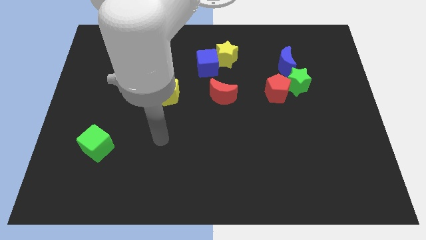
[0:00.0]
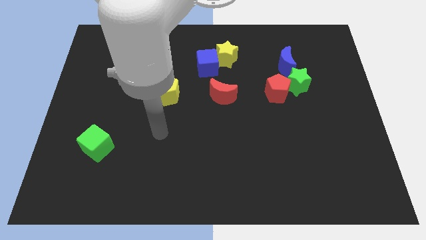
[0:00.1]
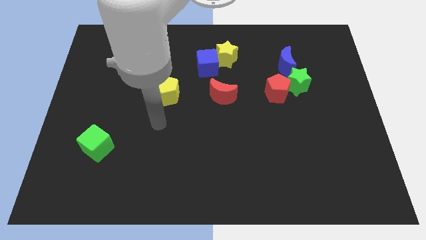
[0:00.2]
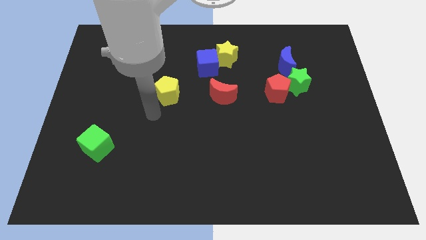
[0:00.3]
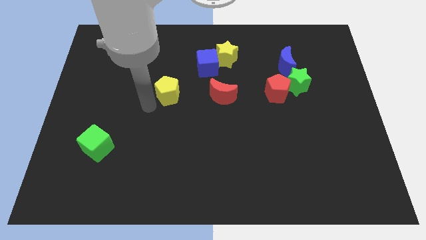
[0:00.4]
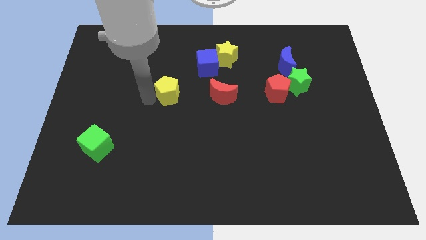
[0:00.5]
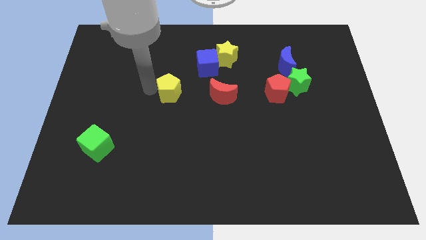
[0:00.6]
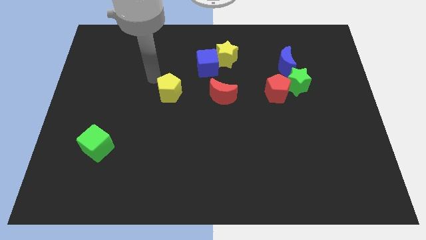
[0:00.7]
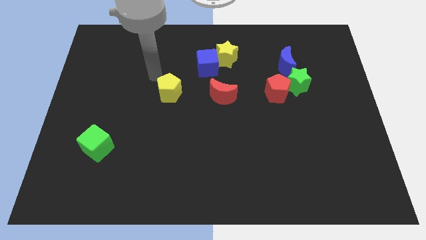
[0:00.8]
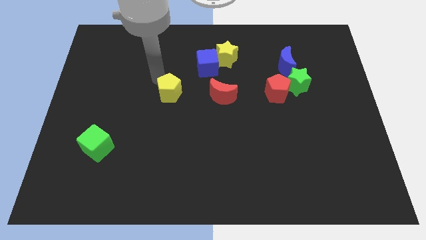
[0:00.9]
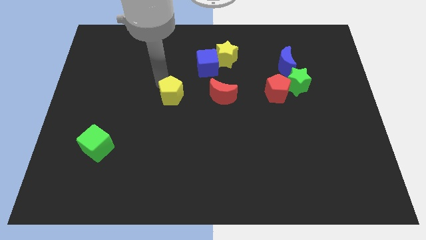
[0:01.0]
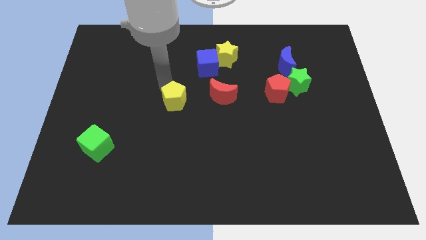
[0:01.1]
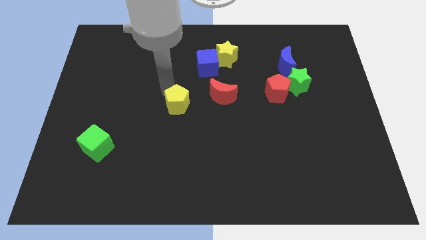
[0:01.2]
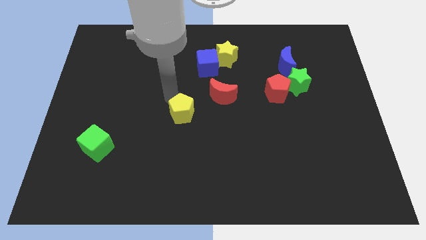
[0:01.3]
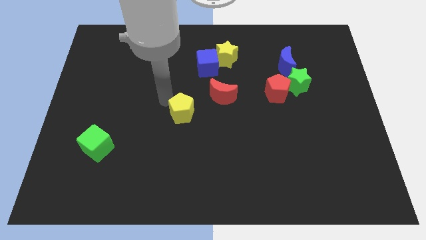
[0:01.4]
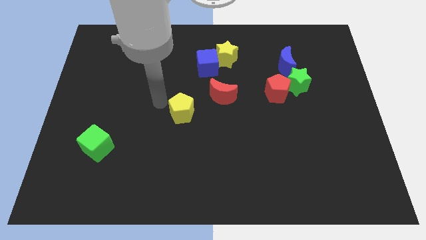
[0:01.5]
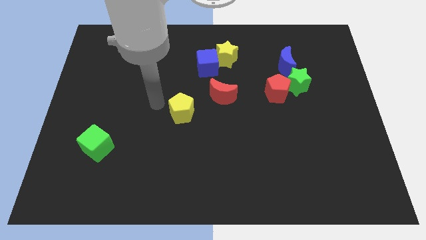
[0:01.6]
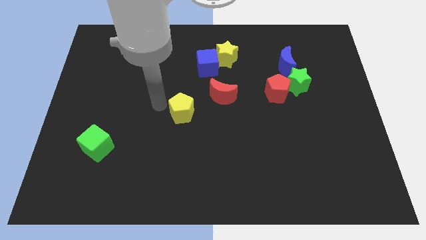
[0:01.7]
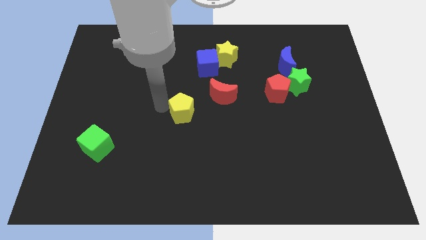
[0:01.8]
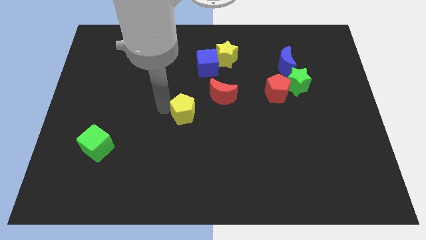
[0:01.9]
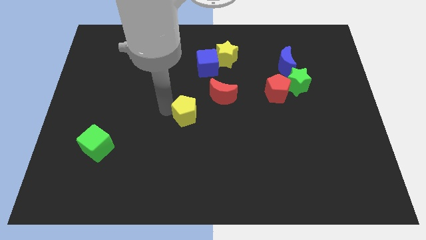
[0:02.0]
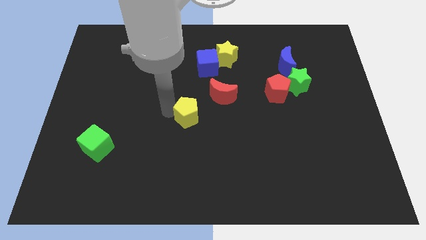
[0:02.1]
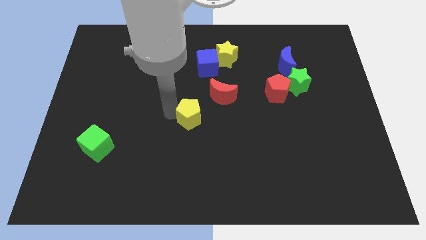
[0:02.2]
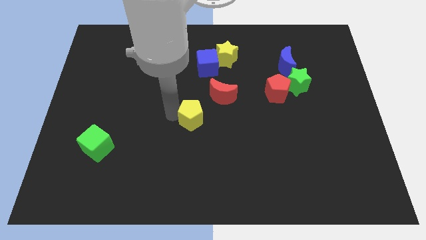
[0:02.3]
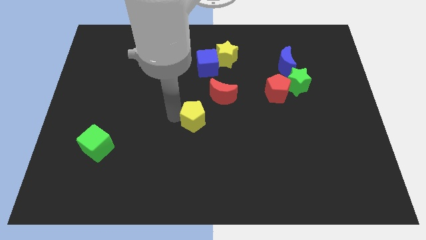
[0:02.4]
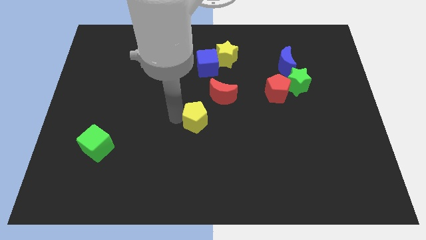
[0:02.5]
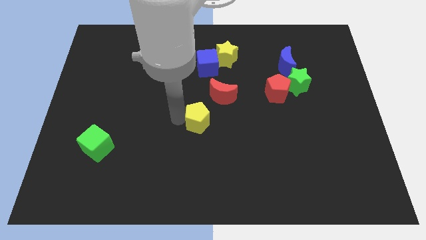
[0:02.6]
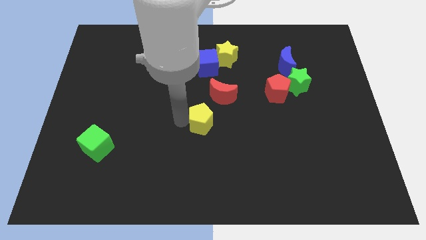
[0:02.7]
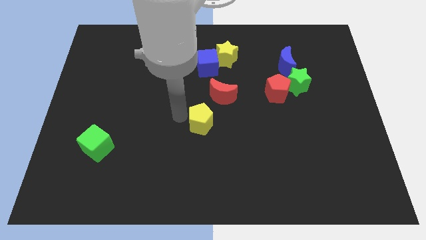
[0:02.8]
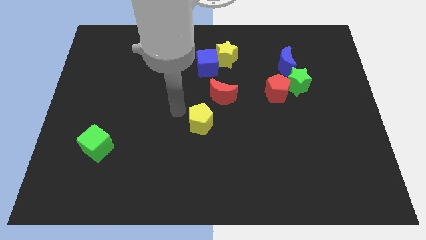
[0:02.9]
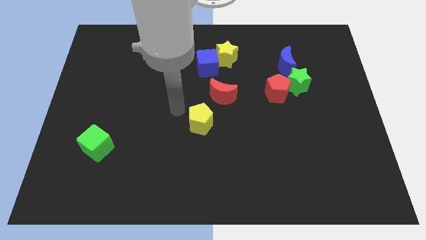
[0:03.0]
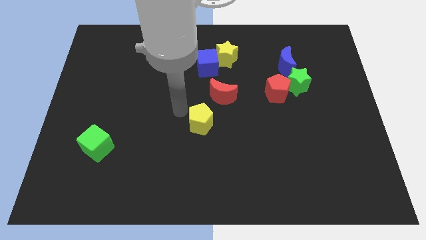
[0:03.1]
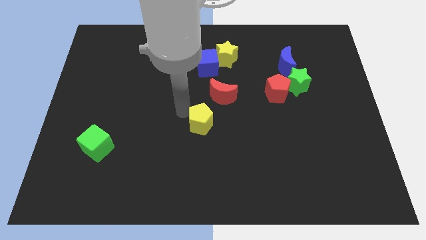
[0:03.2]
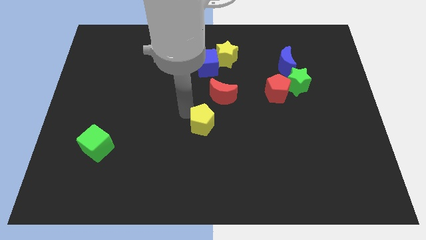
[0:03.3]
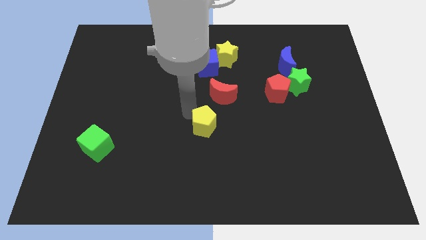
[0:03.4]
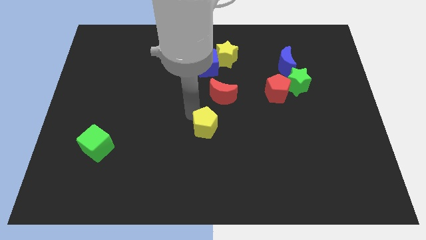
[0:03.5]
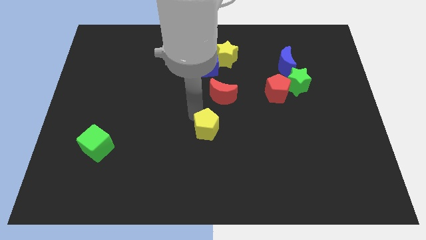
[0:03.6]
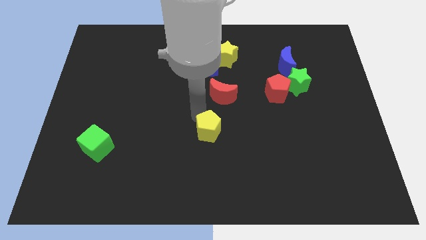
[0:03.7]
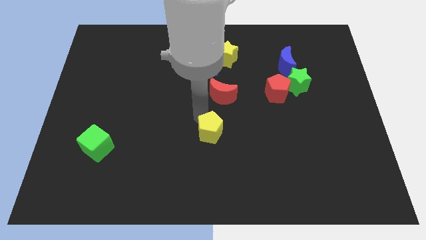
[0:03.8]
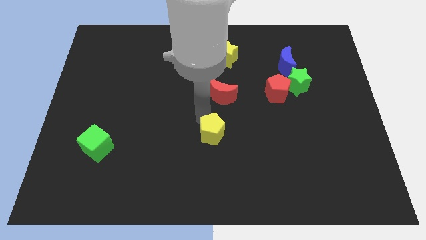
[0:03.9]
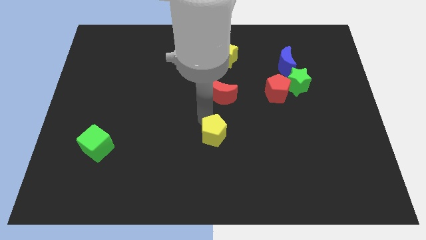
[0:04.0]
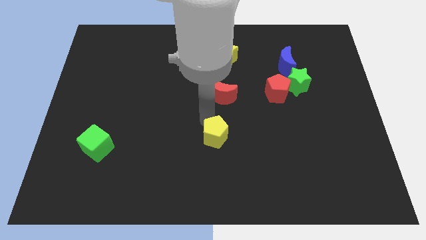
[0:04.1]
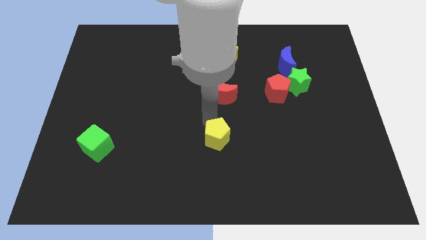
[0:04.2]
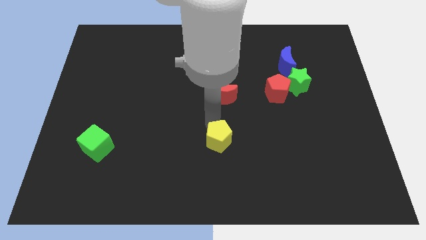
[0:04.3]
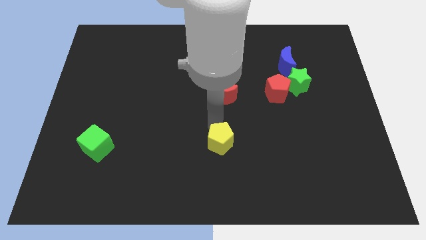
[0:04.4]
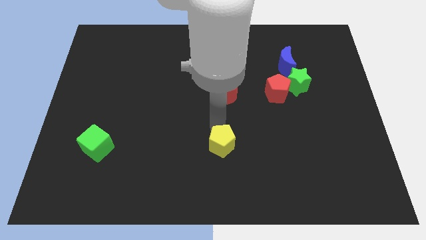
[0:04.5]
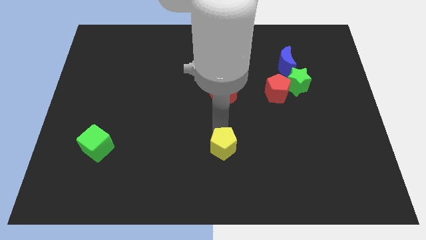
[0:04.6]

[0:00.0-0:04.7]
slide the yellow pentagon down and then right

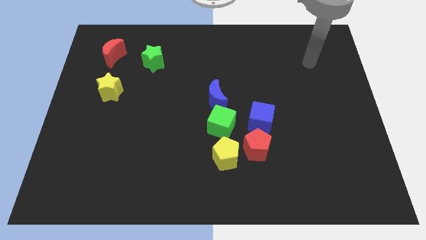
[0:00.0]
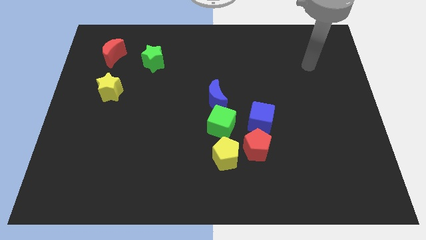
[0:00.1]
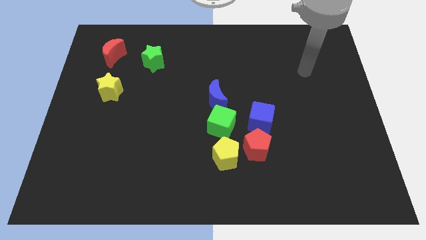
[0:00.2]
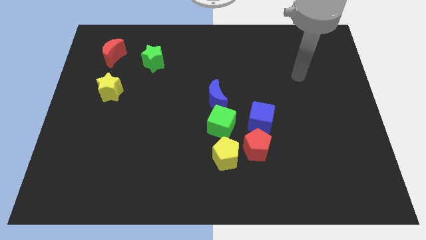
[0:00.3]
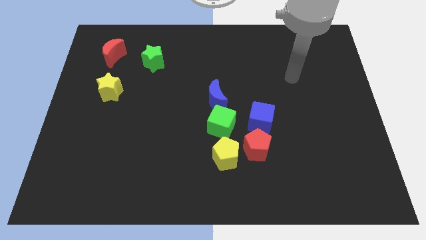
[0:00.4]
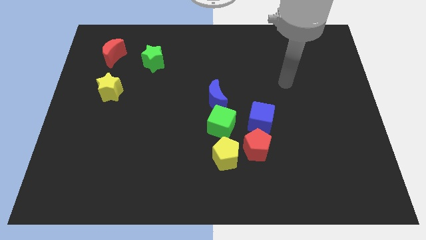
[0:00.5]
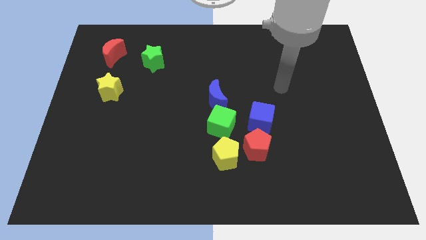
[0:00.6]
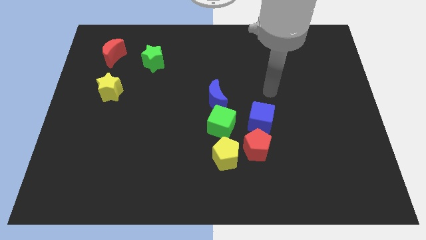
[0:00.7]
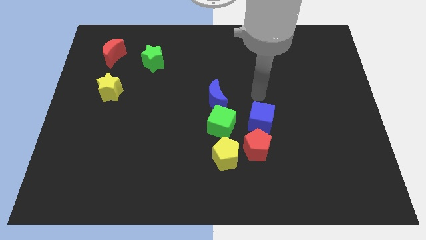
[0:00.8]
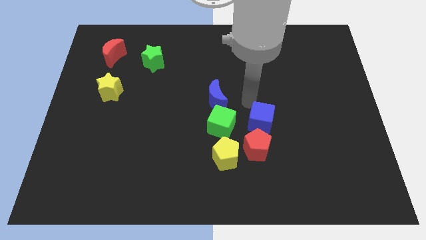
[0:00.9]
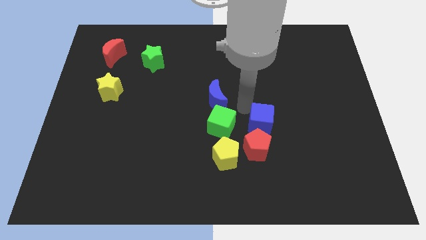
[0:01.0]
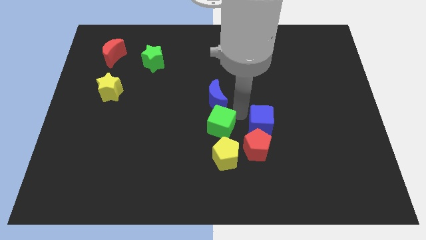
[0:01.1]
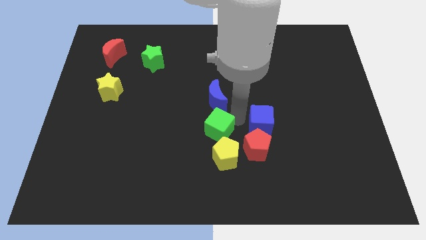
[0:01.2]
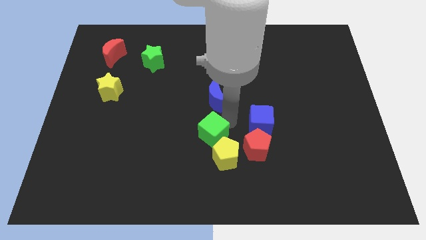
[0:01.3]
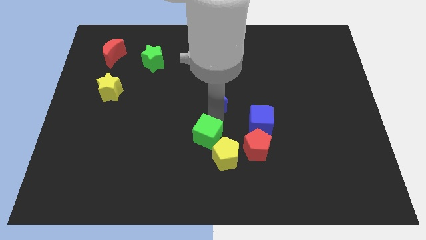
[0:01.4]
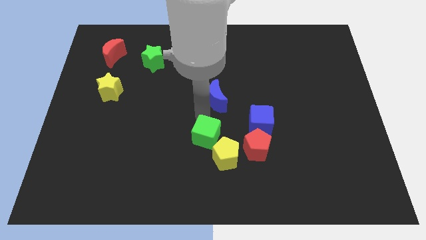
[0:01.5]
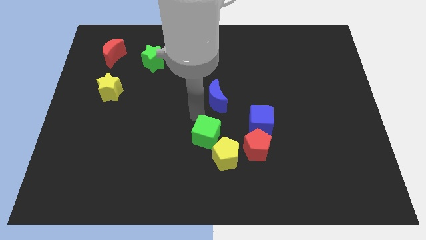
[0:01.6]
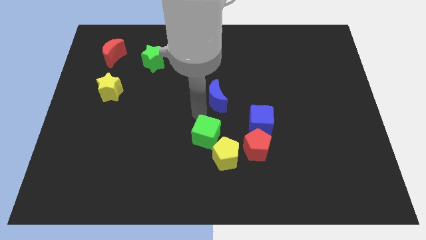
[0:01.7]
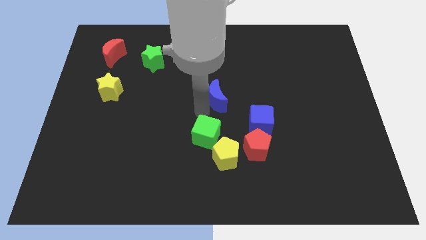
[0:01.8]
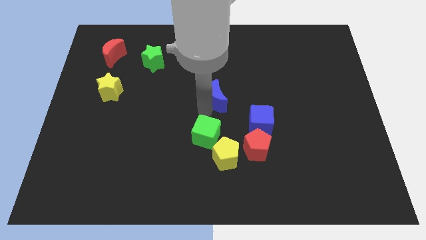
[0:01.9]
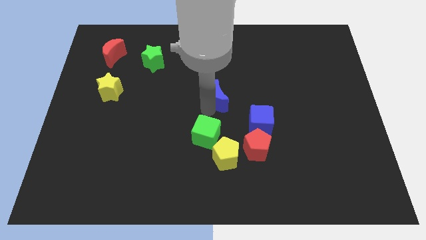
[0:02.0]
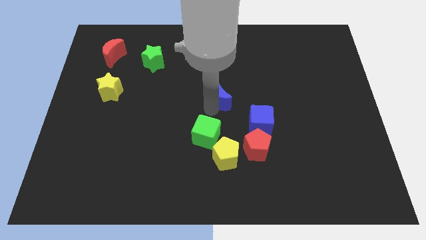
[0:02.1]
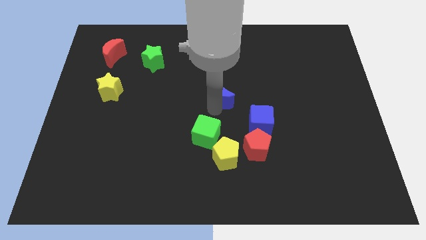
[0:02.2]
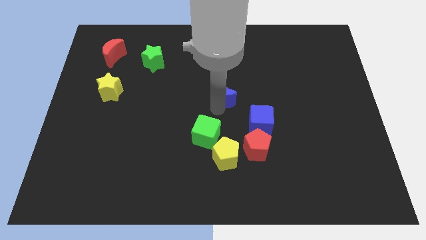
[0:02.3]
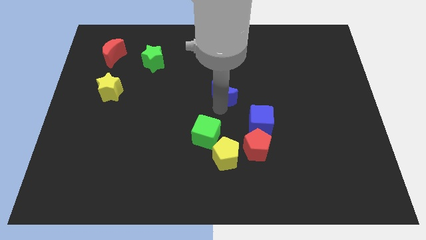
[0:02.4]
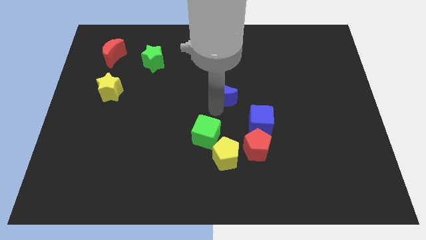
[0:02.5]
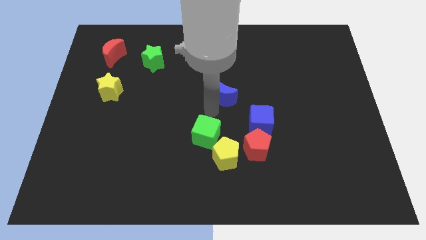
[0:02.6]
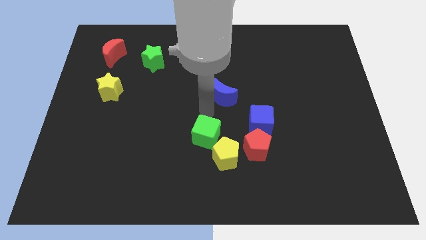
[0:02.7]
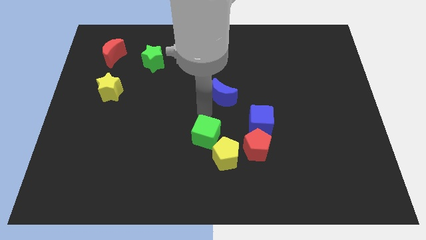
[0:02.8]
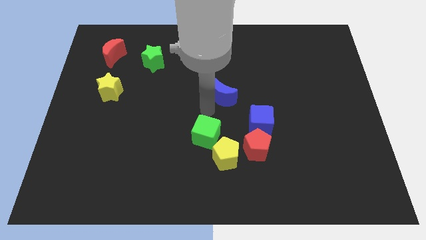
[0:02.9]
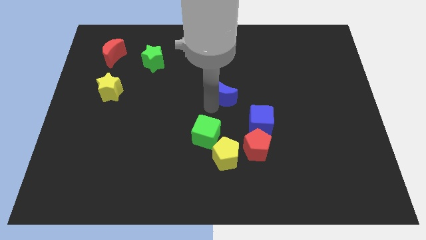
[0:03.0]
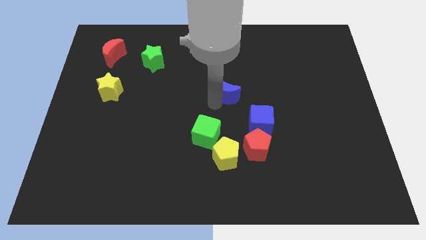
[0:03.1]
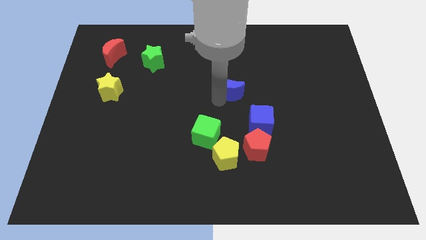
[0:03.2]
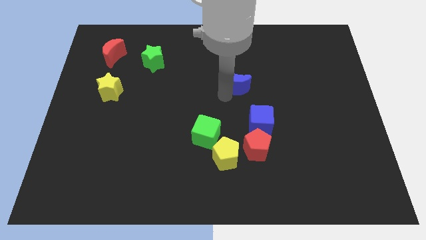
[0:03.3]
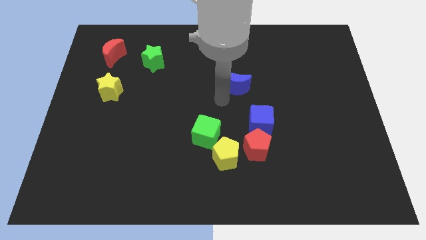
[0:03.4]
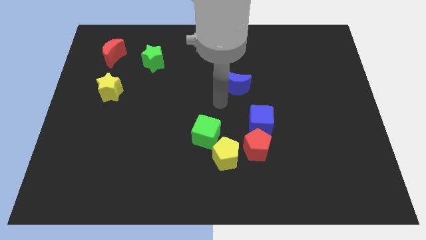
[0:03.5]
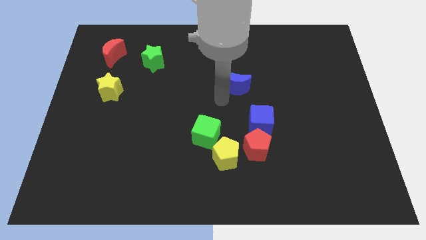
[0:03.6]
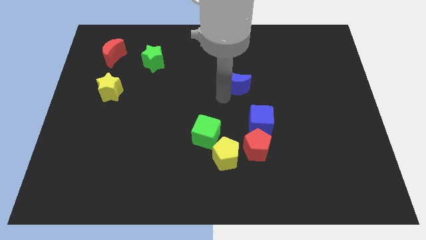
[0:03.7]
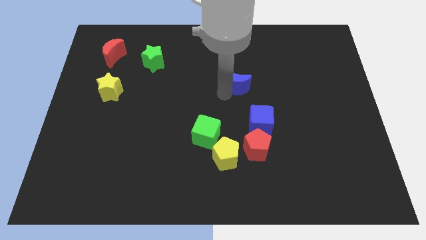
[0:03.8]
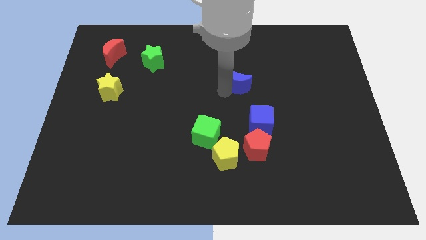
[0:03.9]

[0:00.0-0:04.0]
slightly push the blue moon diagonally upwards and to the right
